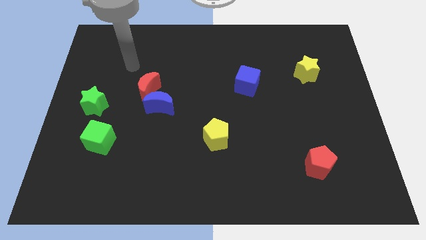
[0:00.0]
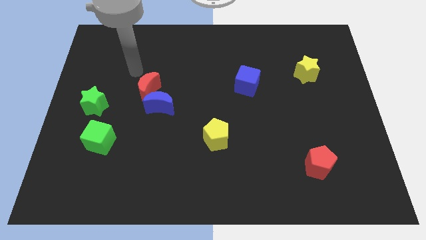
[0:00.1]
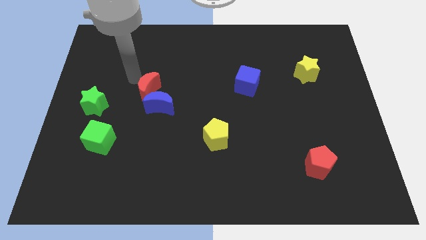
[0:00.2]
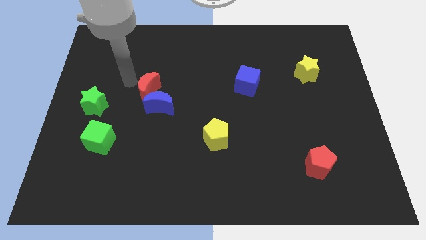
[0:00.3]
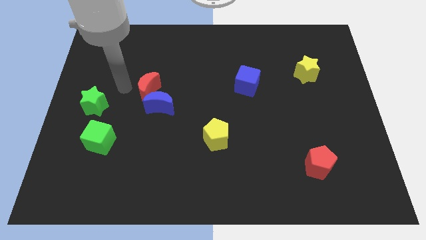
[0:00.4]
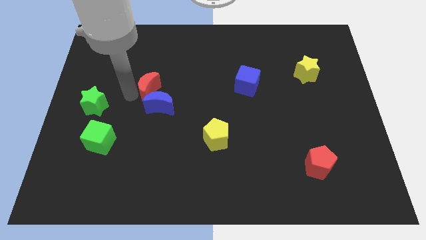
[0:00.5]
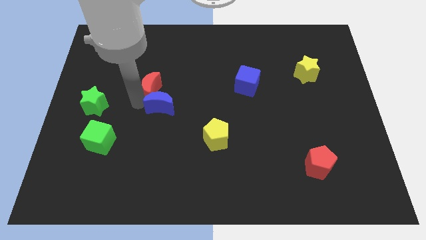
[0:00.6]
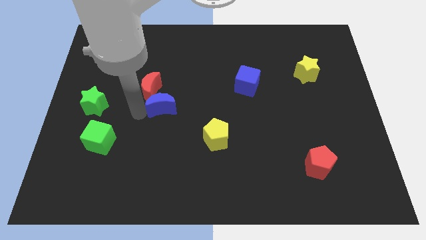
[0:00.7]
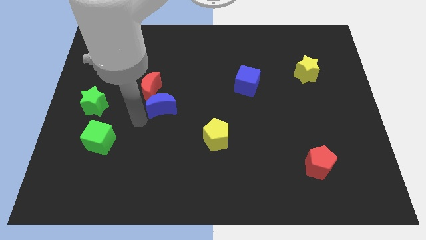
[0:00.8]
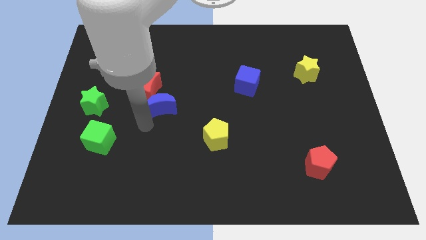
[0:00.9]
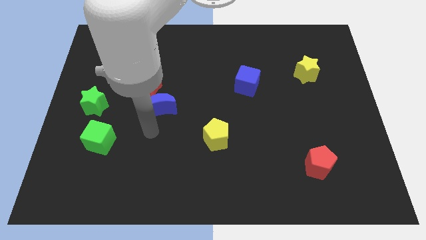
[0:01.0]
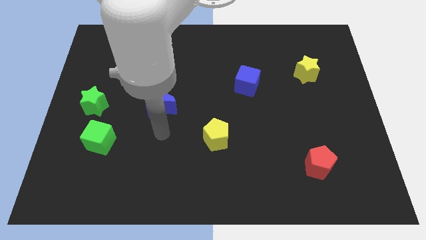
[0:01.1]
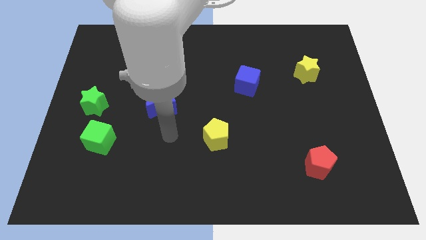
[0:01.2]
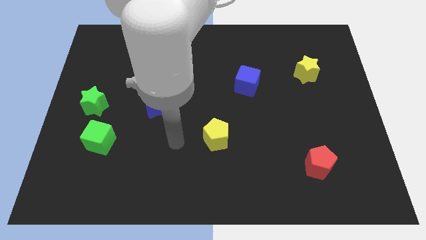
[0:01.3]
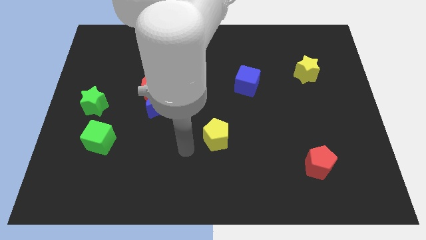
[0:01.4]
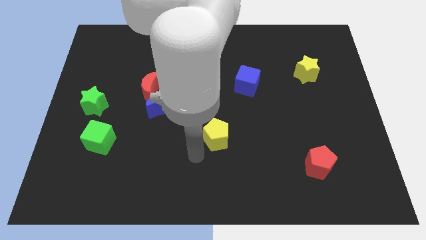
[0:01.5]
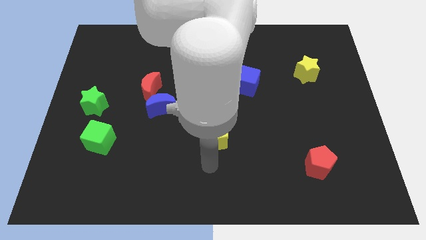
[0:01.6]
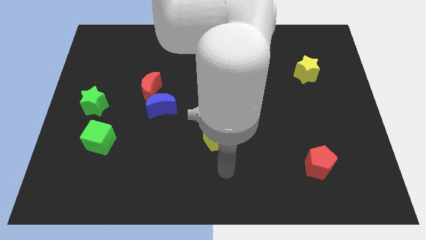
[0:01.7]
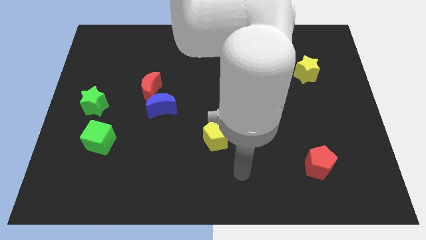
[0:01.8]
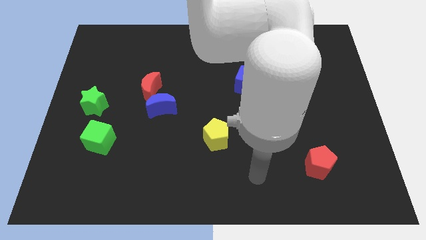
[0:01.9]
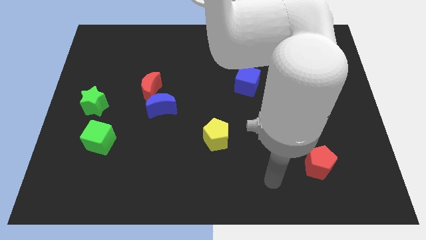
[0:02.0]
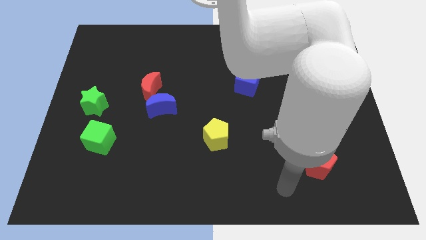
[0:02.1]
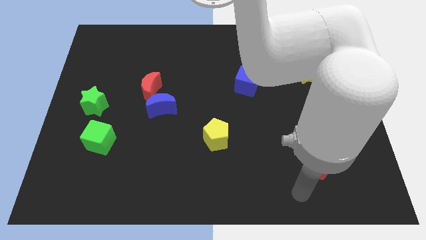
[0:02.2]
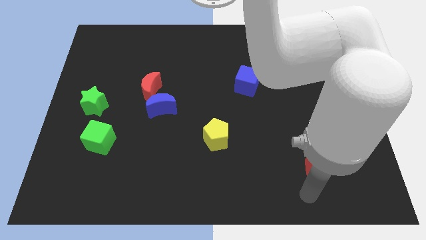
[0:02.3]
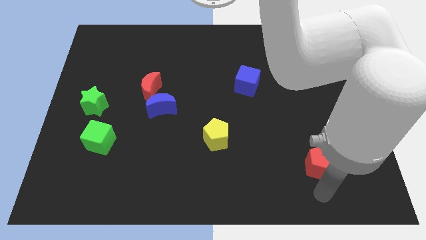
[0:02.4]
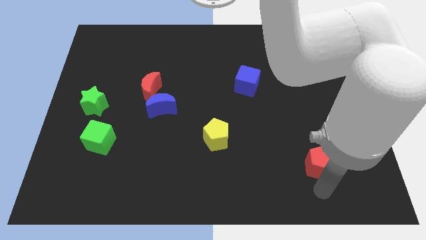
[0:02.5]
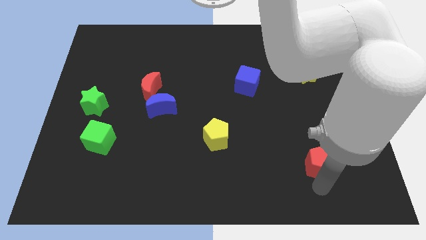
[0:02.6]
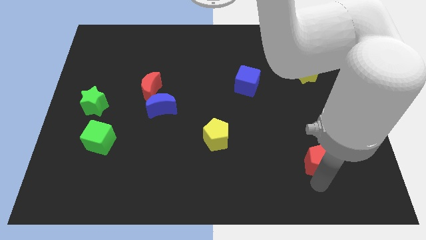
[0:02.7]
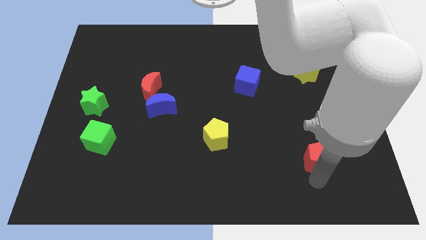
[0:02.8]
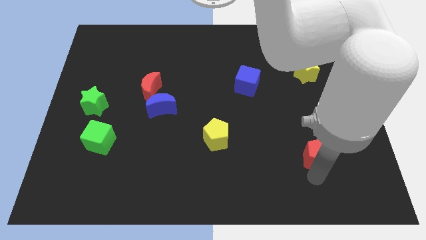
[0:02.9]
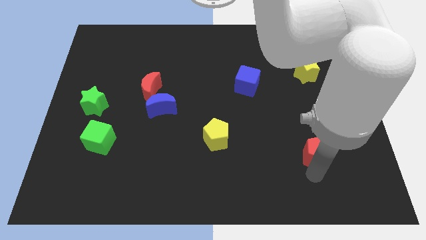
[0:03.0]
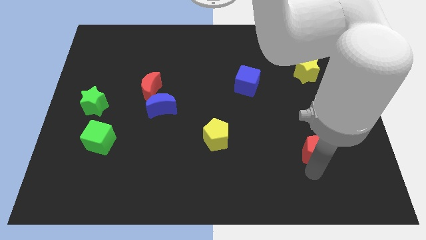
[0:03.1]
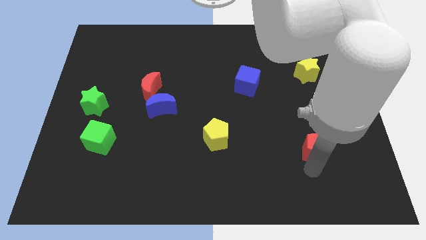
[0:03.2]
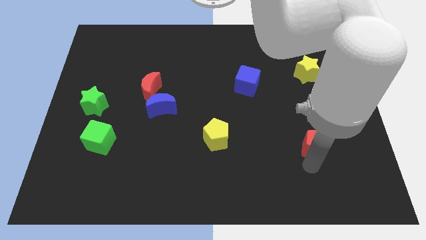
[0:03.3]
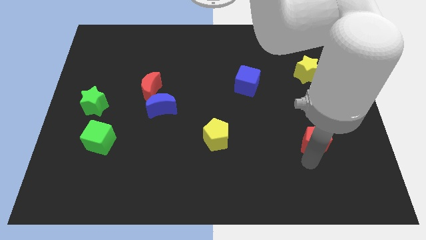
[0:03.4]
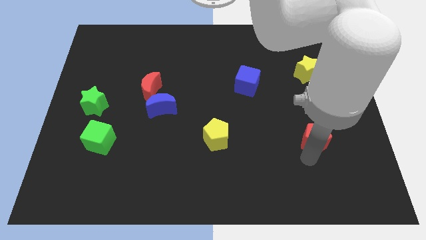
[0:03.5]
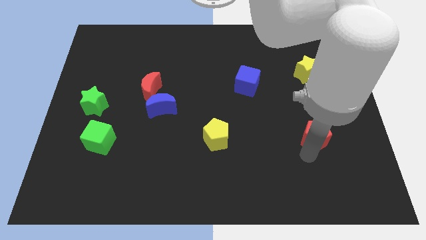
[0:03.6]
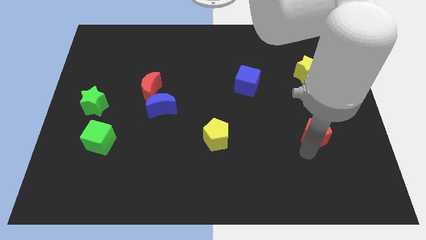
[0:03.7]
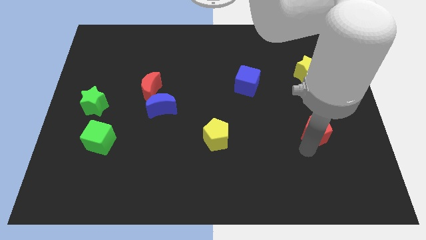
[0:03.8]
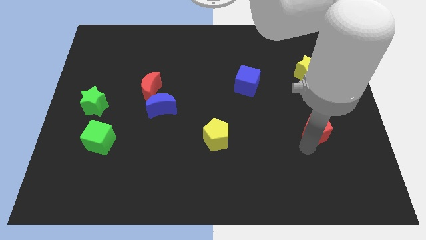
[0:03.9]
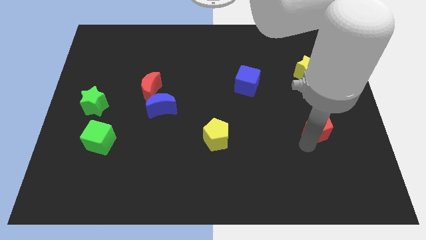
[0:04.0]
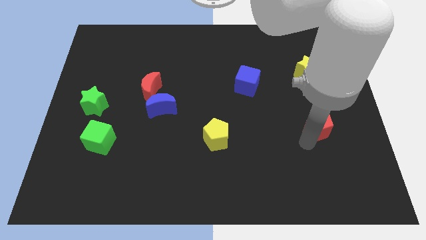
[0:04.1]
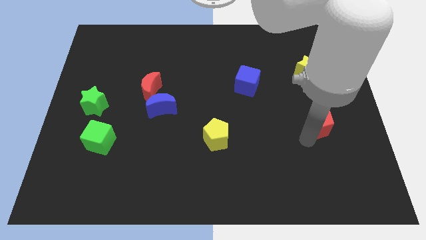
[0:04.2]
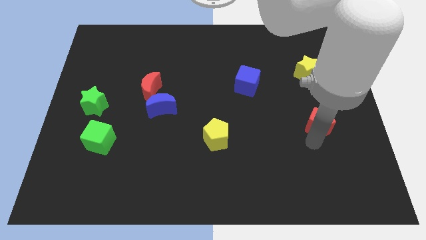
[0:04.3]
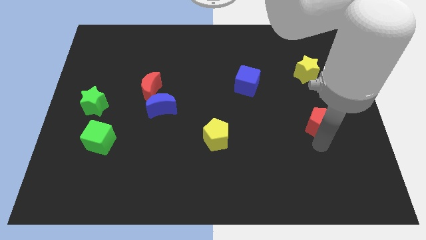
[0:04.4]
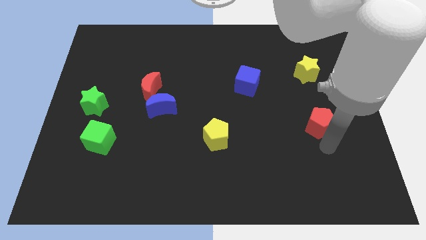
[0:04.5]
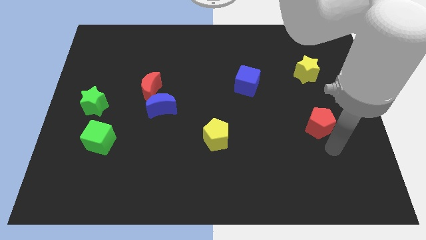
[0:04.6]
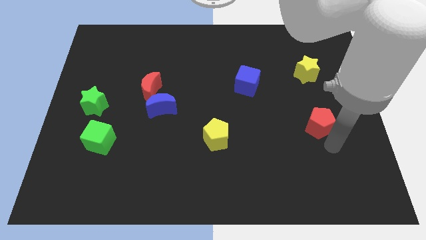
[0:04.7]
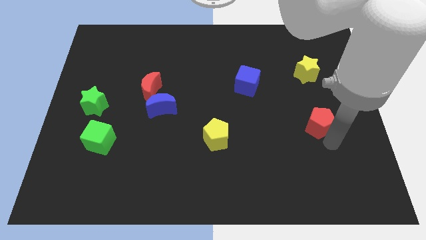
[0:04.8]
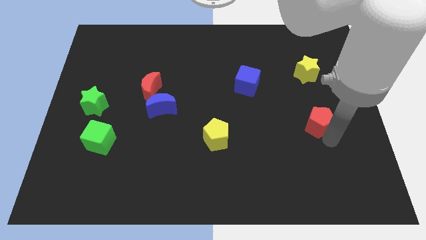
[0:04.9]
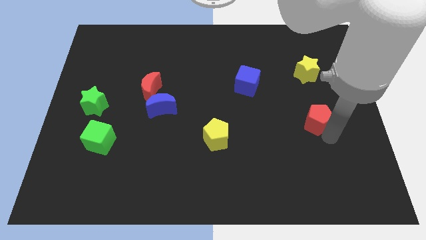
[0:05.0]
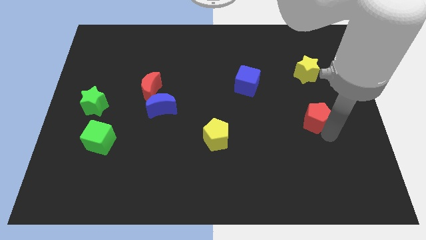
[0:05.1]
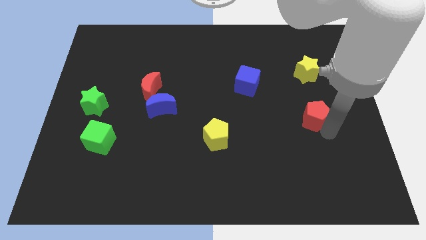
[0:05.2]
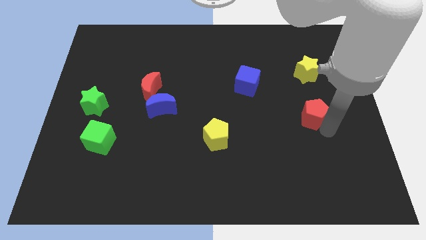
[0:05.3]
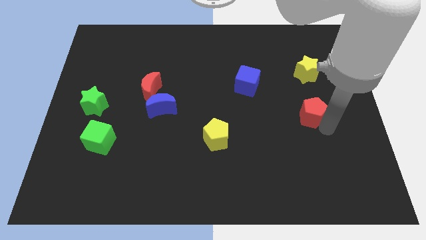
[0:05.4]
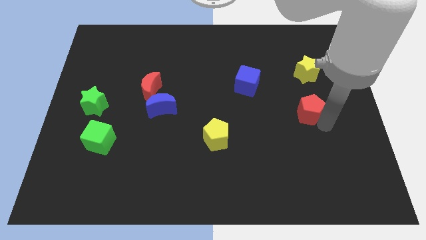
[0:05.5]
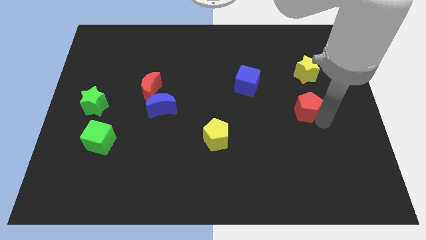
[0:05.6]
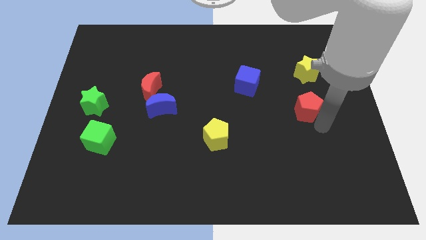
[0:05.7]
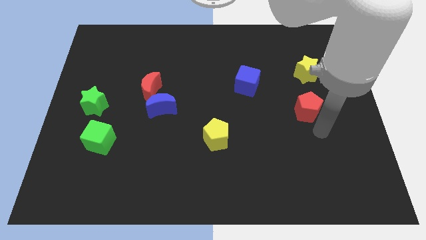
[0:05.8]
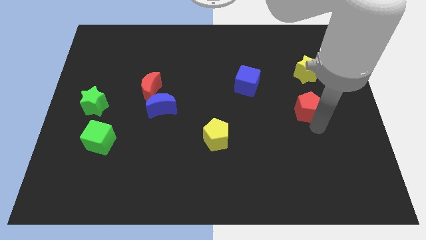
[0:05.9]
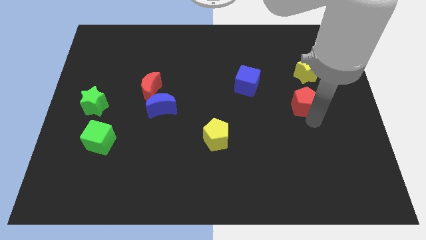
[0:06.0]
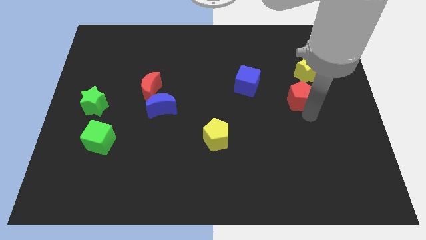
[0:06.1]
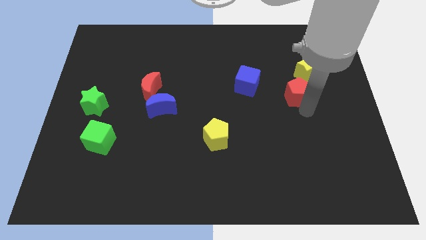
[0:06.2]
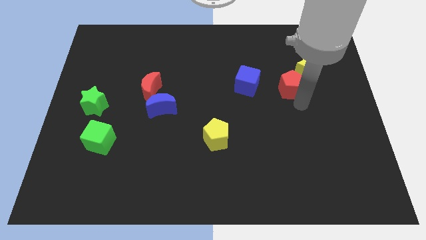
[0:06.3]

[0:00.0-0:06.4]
slide the red pentagon upwards

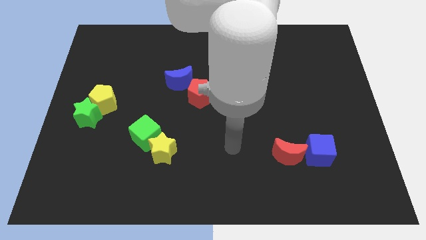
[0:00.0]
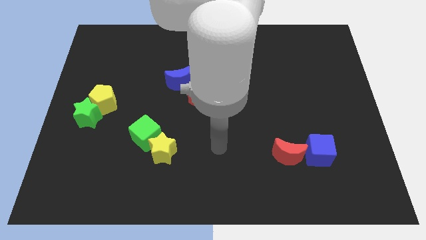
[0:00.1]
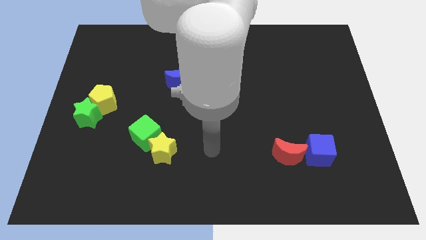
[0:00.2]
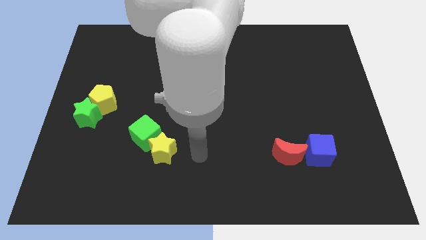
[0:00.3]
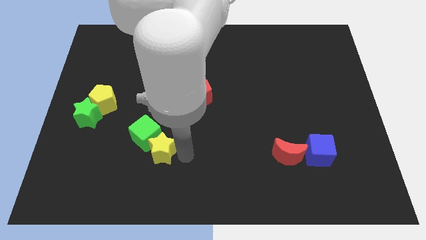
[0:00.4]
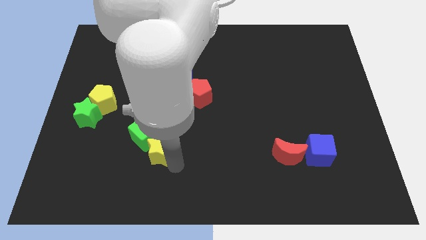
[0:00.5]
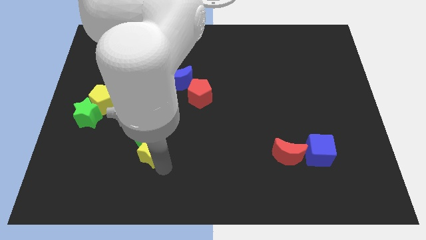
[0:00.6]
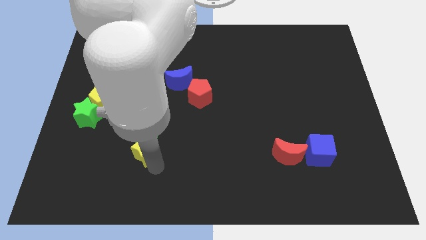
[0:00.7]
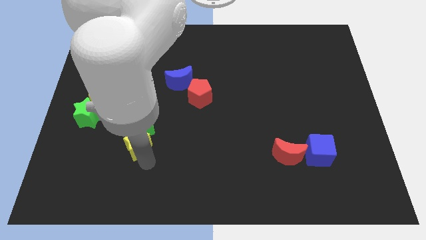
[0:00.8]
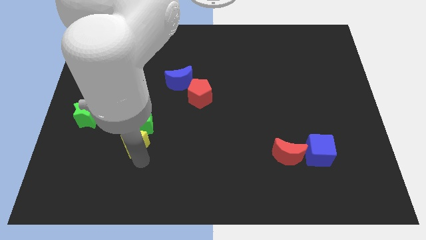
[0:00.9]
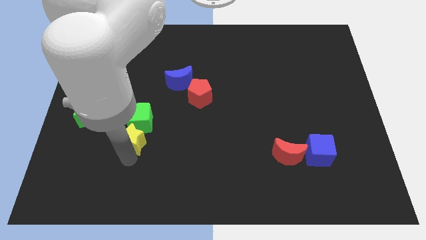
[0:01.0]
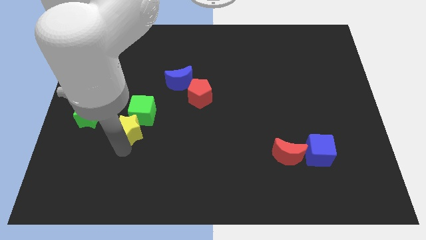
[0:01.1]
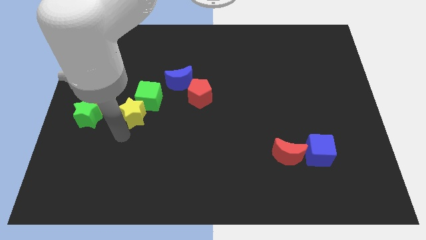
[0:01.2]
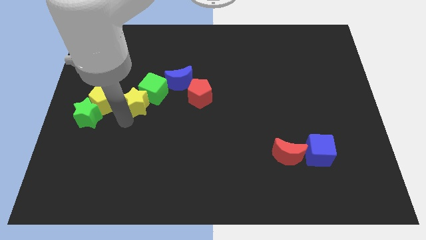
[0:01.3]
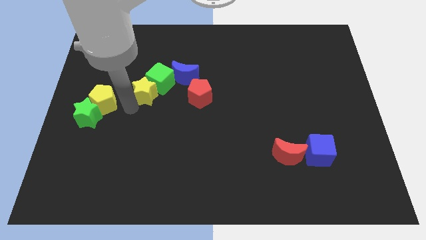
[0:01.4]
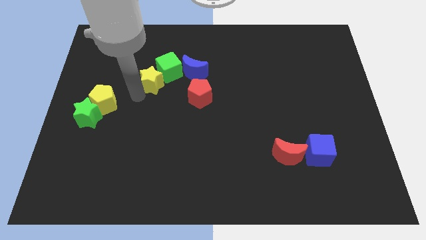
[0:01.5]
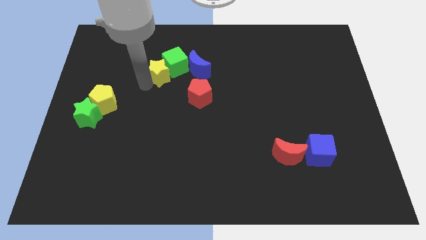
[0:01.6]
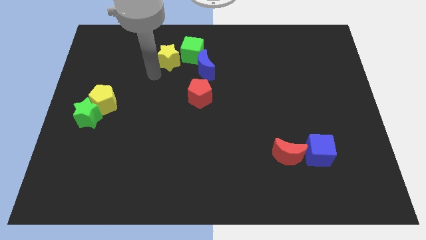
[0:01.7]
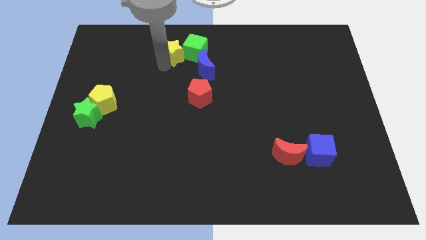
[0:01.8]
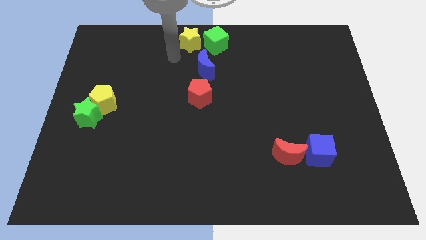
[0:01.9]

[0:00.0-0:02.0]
push the green cube diagonally upwards and right
